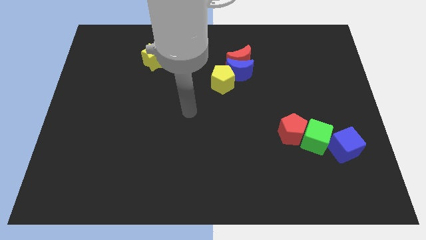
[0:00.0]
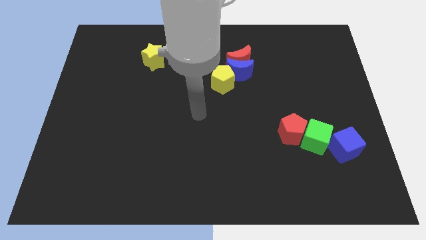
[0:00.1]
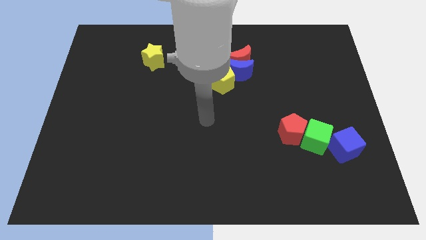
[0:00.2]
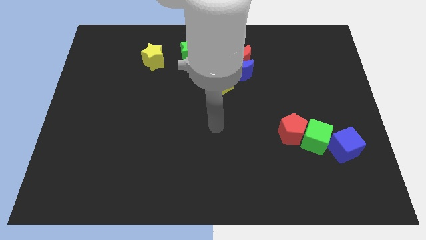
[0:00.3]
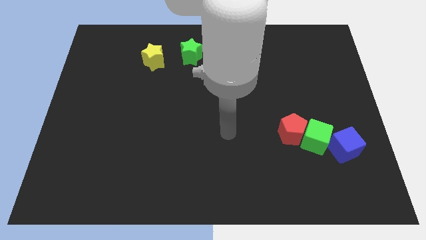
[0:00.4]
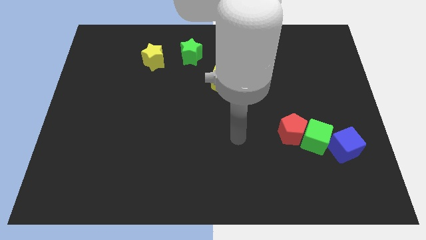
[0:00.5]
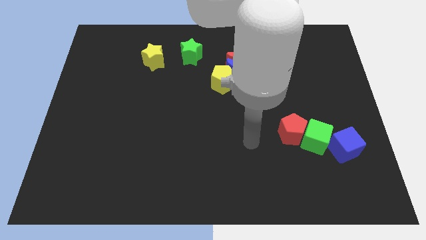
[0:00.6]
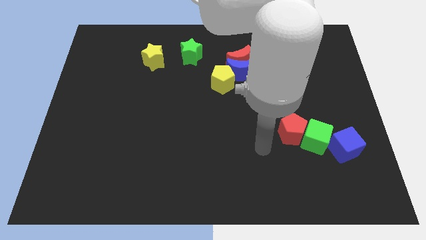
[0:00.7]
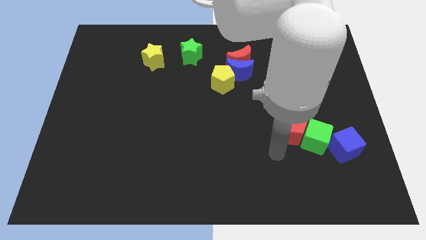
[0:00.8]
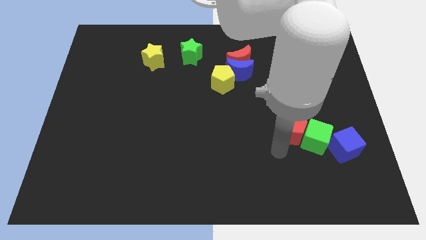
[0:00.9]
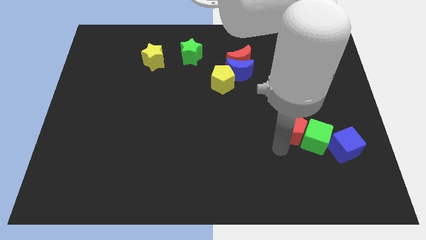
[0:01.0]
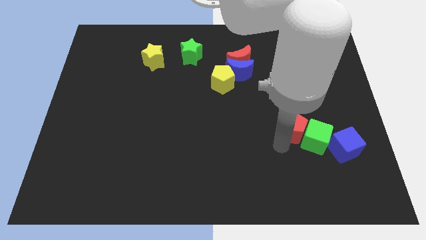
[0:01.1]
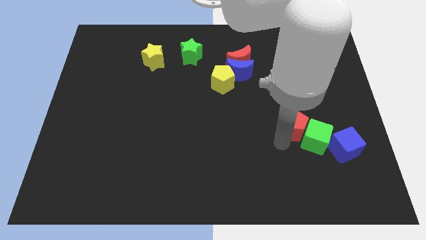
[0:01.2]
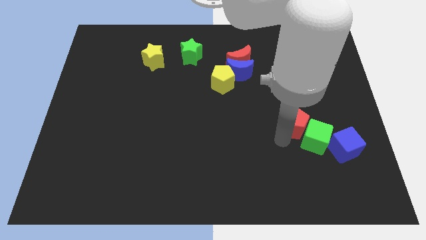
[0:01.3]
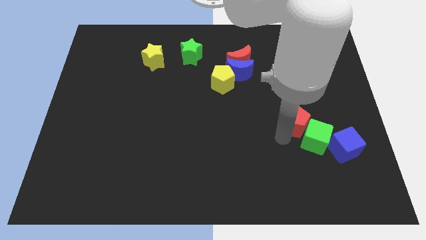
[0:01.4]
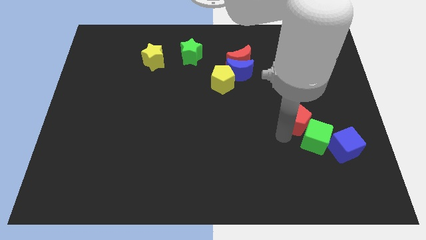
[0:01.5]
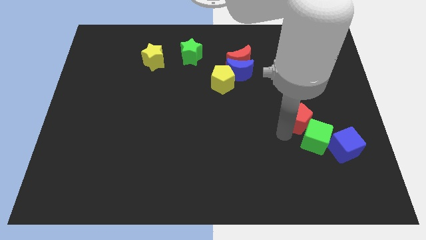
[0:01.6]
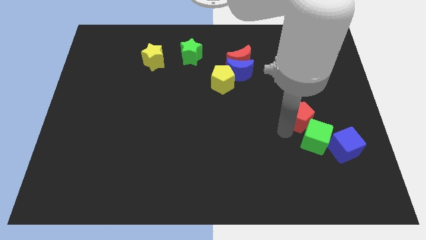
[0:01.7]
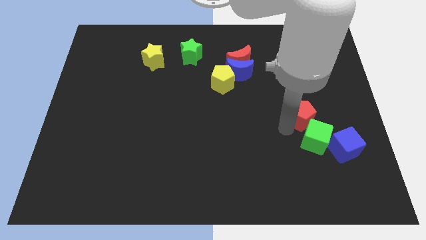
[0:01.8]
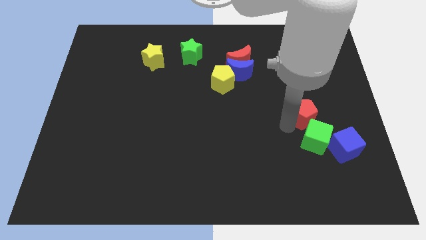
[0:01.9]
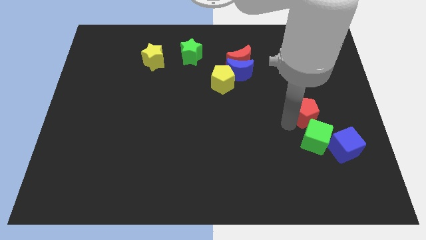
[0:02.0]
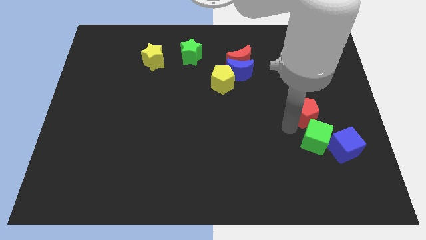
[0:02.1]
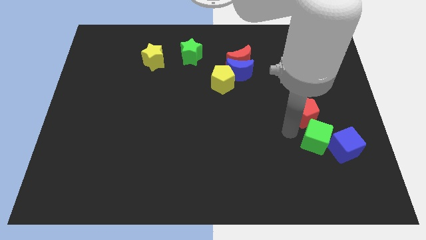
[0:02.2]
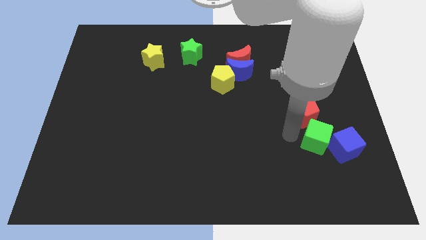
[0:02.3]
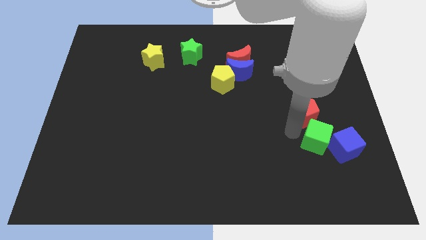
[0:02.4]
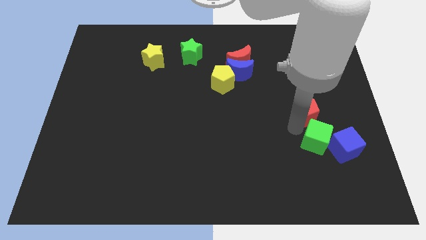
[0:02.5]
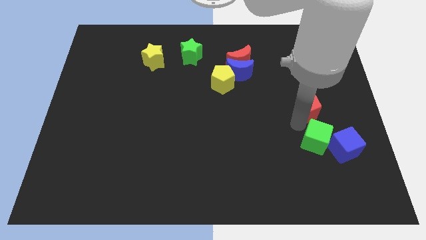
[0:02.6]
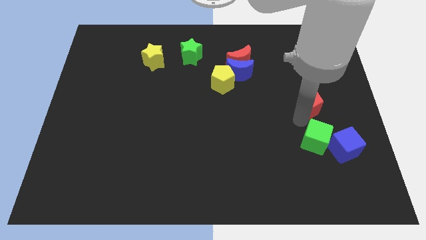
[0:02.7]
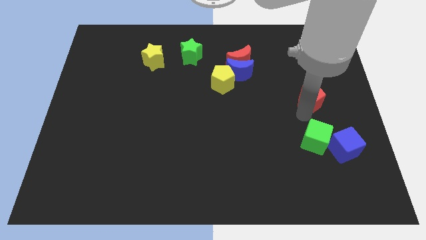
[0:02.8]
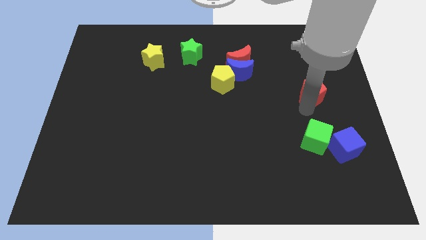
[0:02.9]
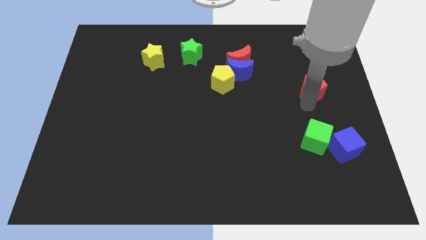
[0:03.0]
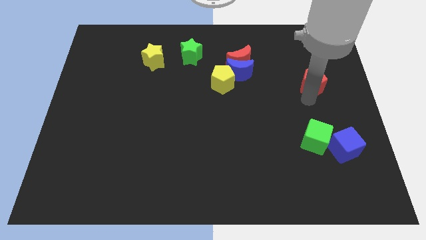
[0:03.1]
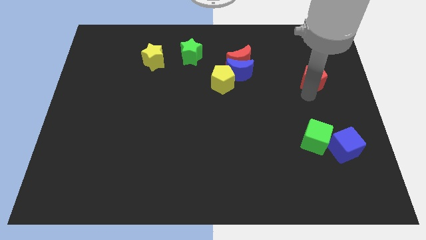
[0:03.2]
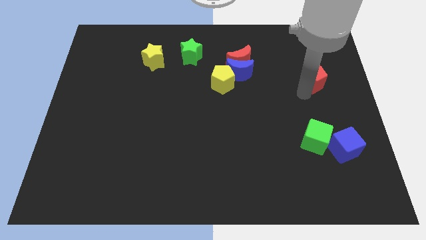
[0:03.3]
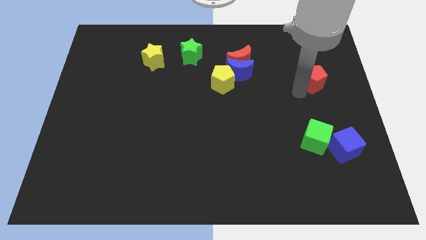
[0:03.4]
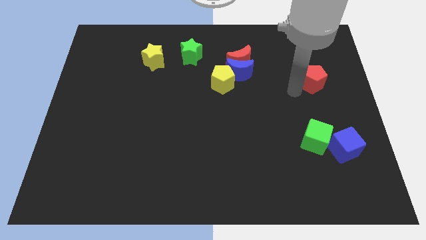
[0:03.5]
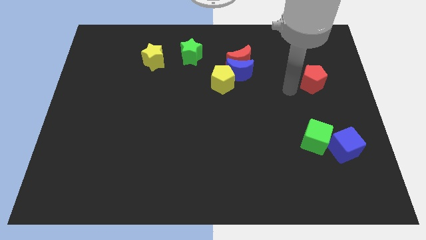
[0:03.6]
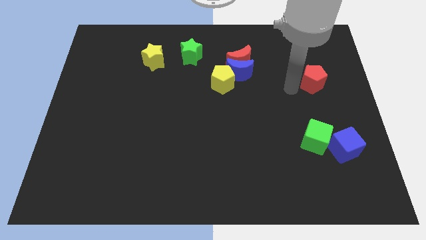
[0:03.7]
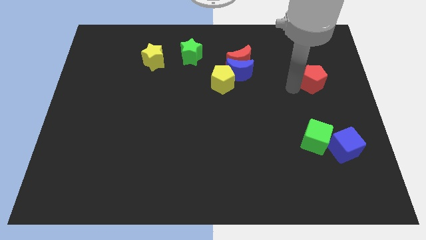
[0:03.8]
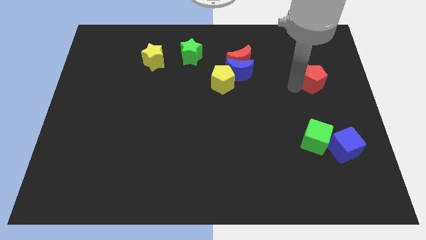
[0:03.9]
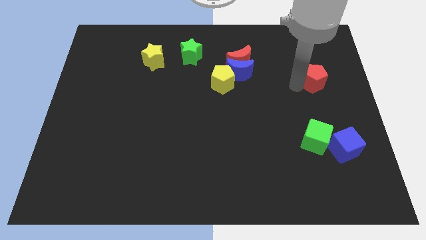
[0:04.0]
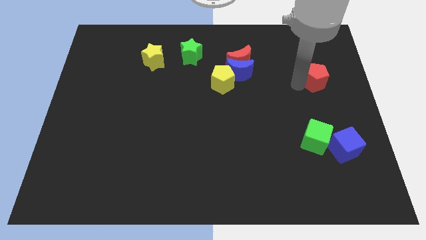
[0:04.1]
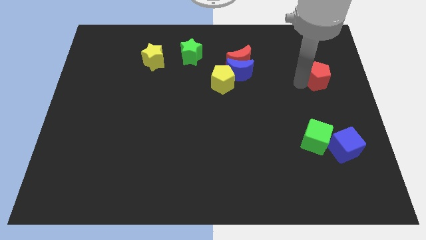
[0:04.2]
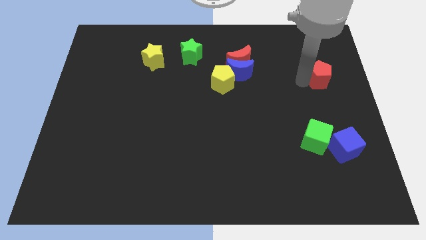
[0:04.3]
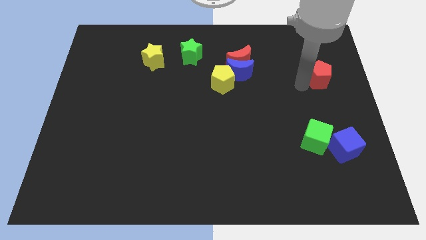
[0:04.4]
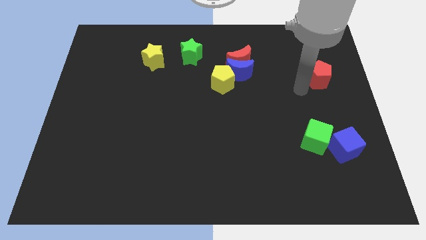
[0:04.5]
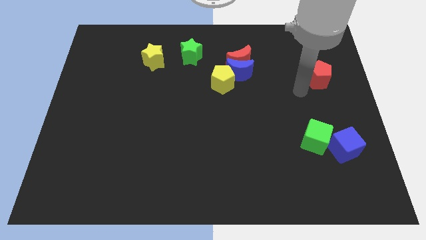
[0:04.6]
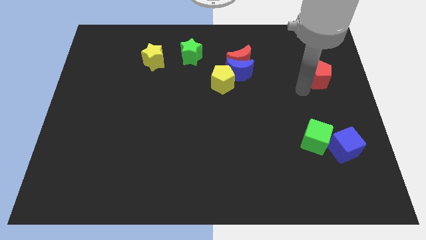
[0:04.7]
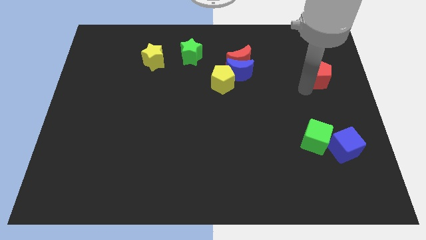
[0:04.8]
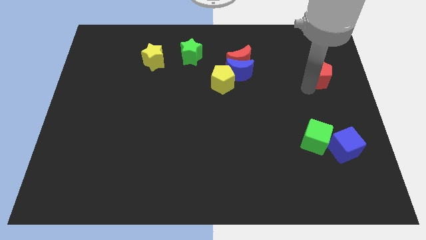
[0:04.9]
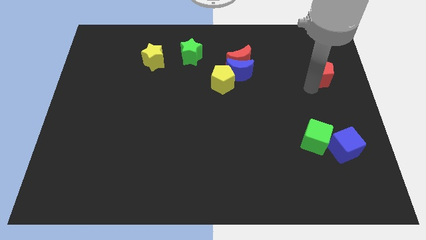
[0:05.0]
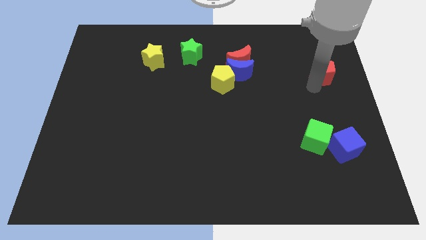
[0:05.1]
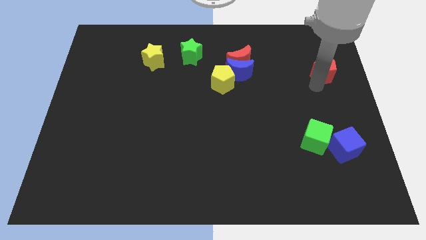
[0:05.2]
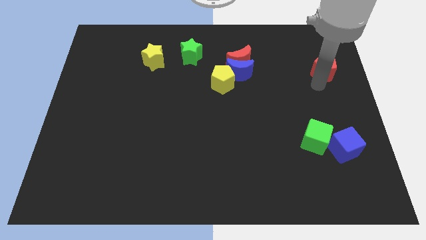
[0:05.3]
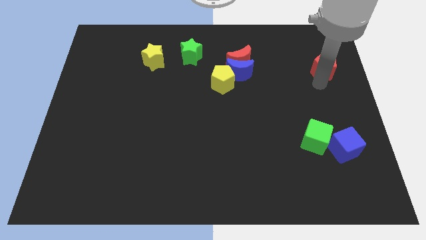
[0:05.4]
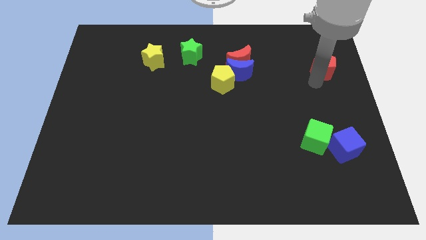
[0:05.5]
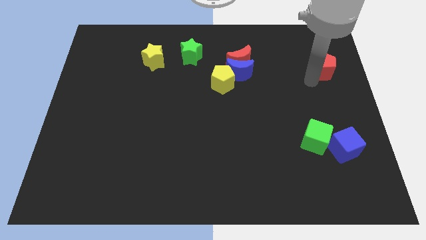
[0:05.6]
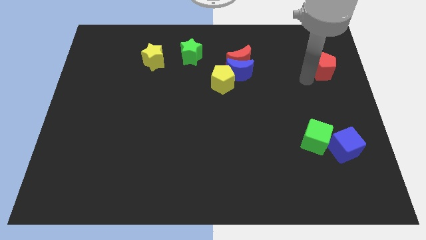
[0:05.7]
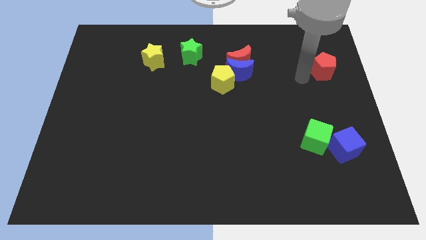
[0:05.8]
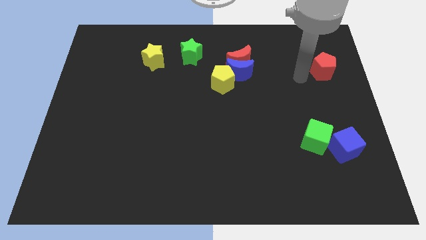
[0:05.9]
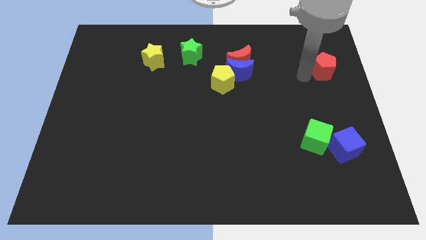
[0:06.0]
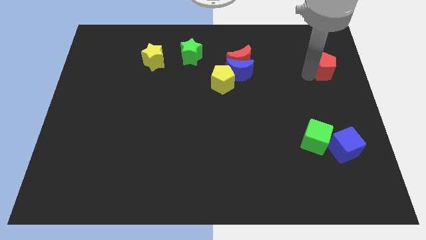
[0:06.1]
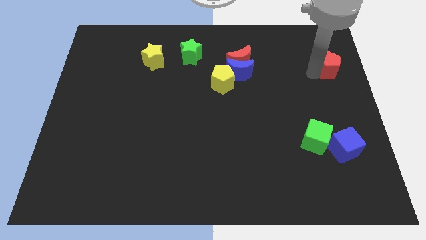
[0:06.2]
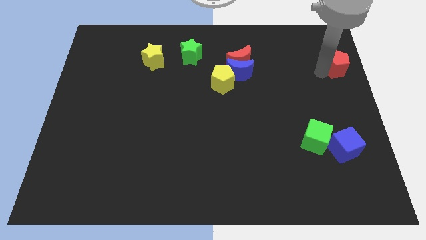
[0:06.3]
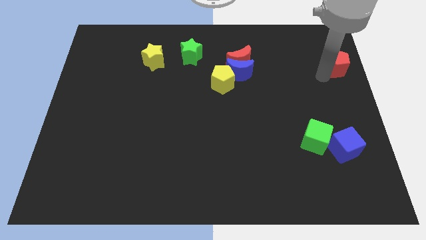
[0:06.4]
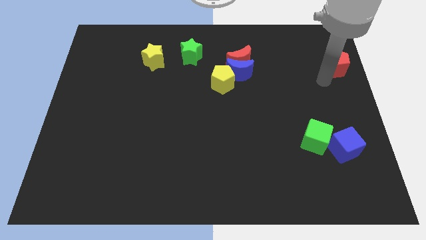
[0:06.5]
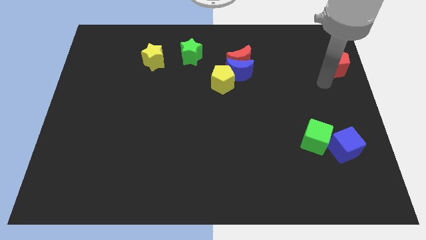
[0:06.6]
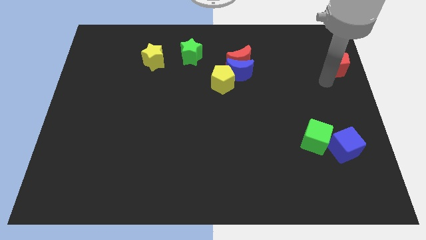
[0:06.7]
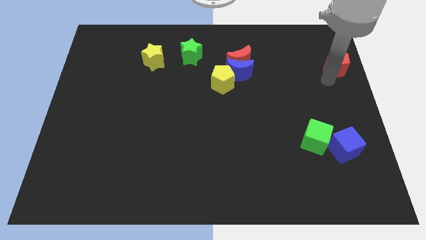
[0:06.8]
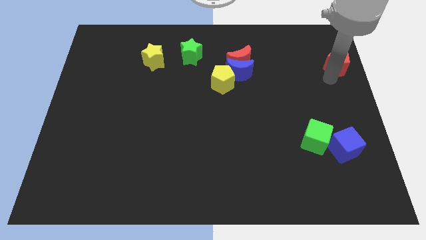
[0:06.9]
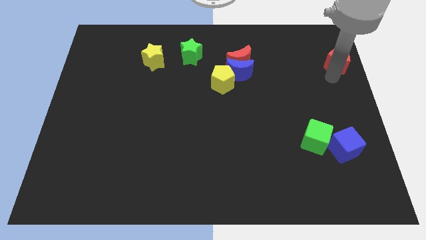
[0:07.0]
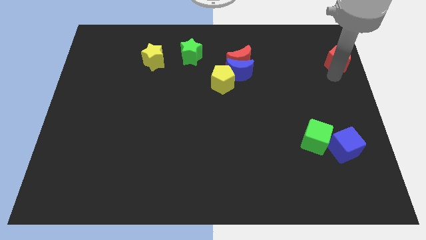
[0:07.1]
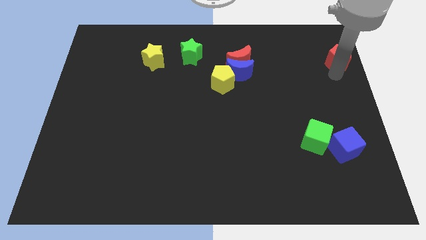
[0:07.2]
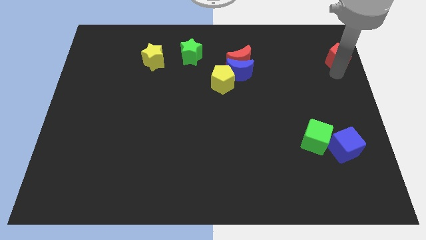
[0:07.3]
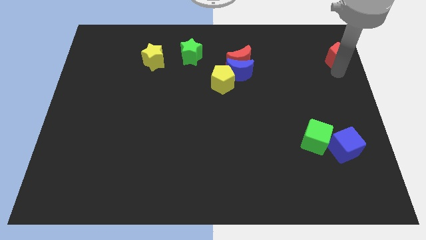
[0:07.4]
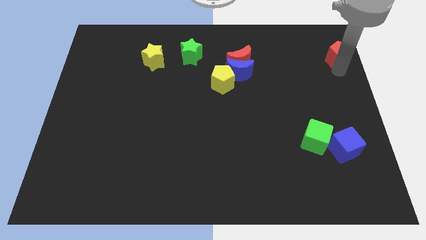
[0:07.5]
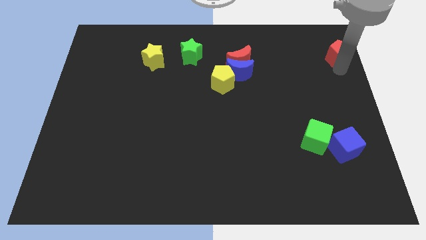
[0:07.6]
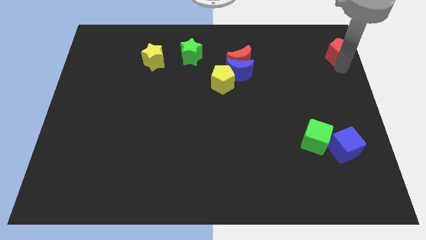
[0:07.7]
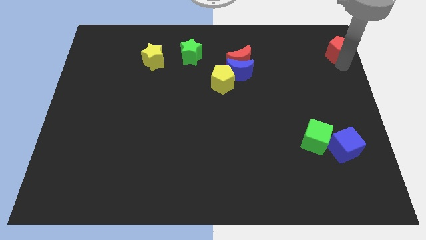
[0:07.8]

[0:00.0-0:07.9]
slide the red pentagon to the upper right corner
